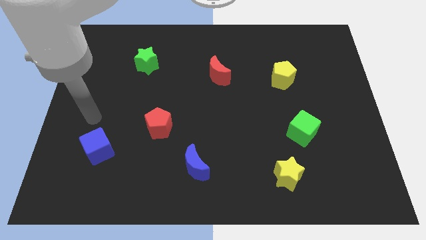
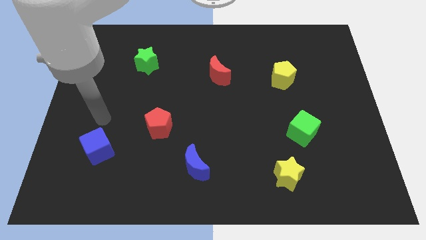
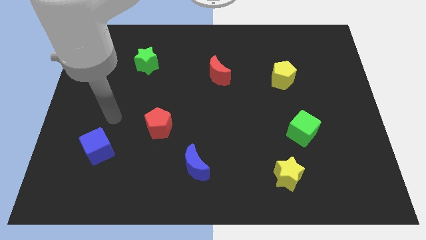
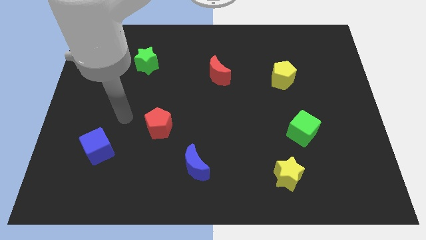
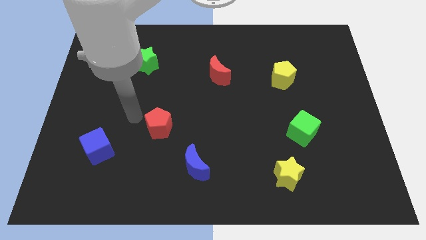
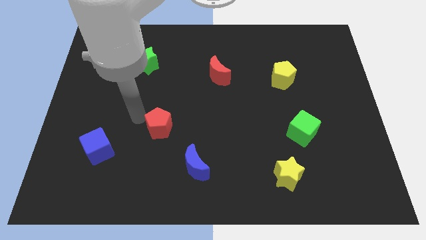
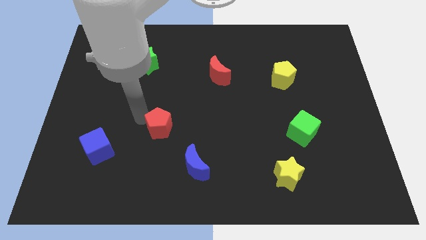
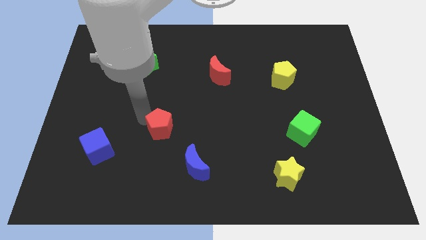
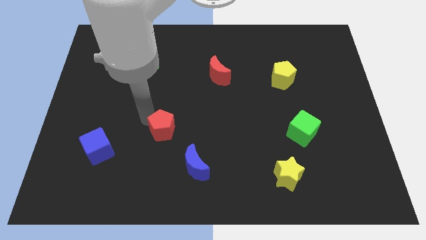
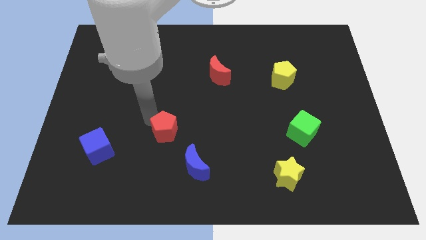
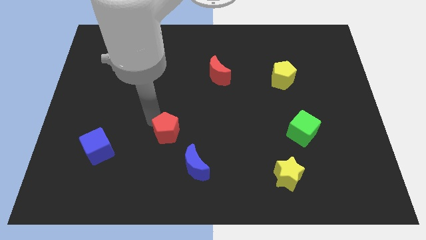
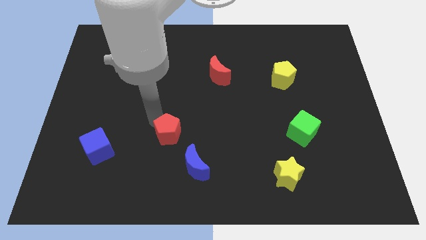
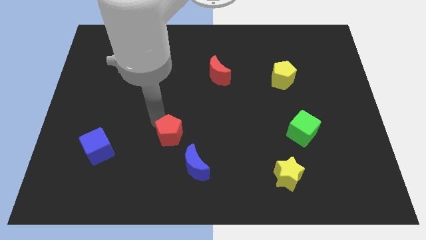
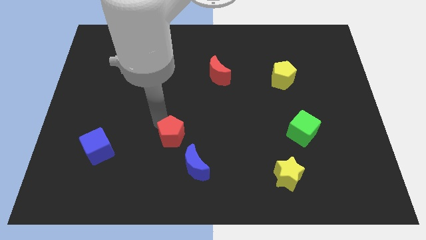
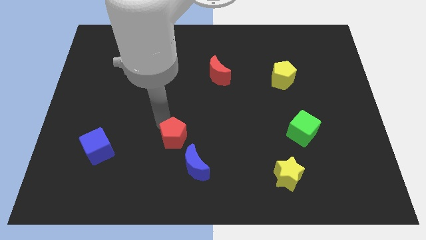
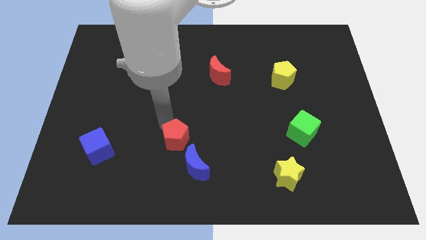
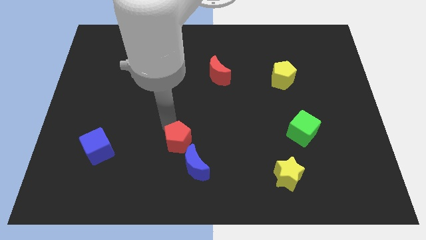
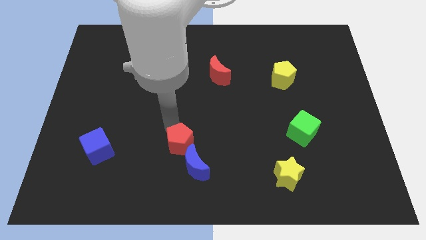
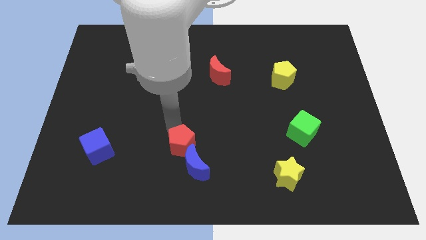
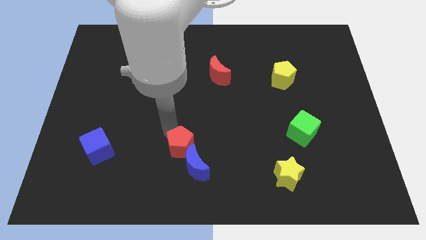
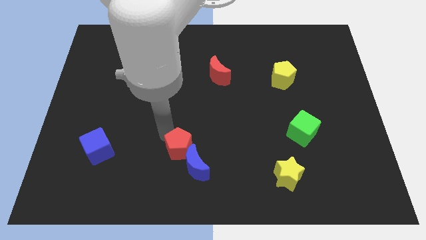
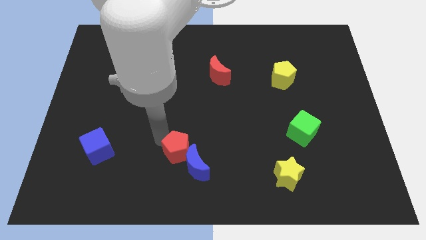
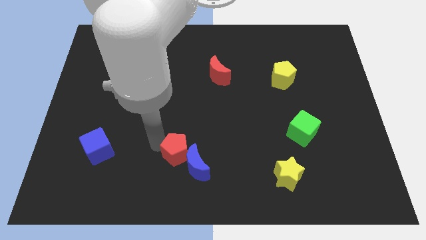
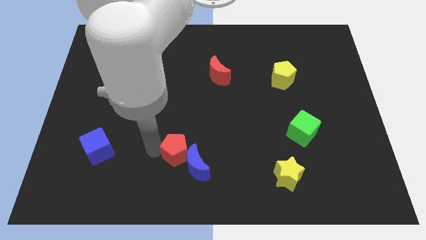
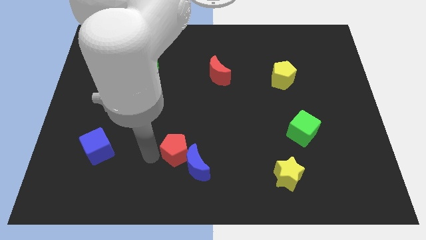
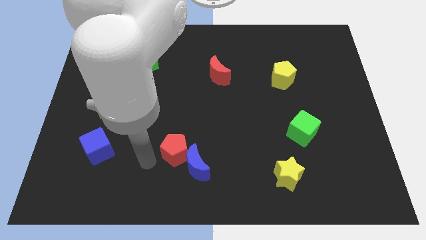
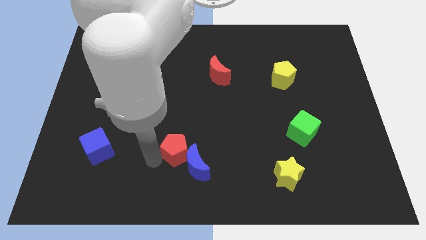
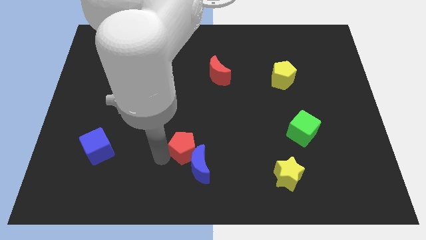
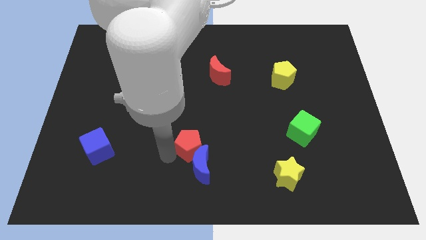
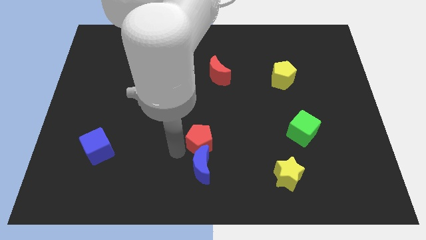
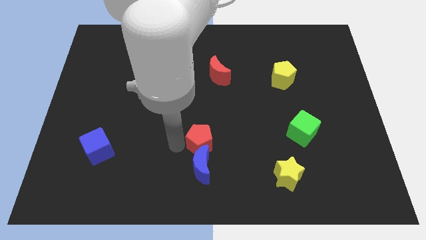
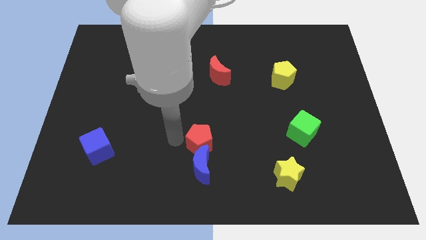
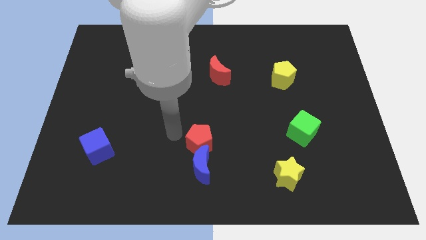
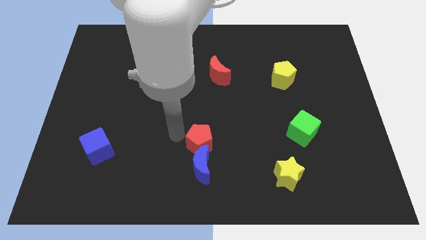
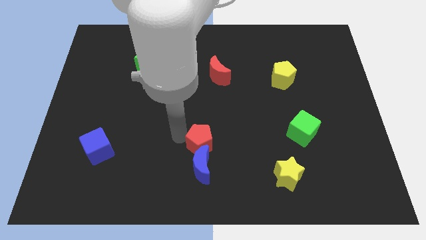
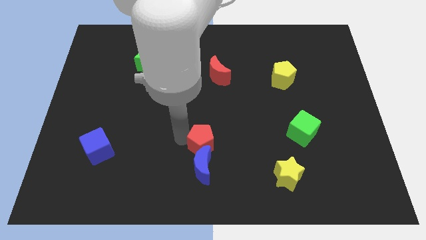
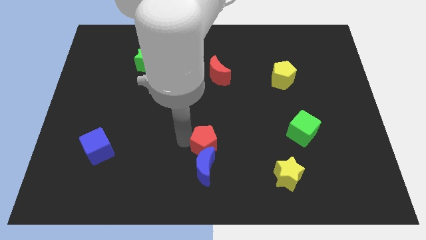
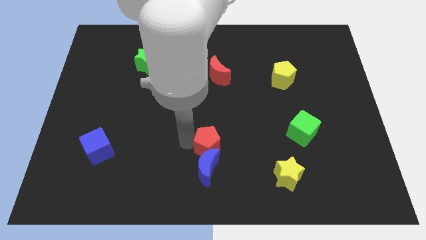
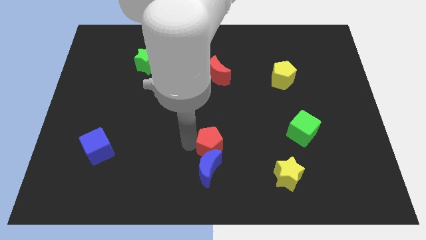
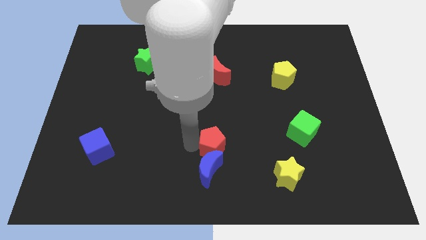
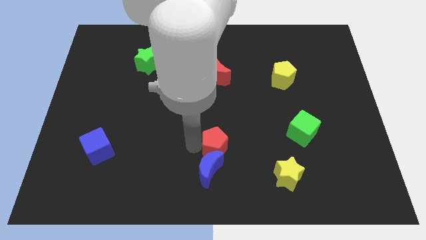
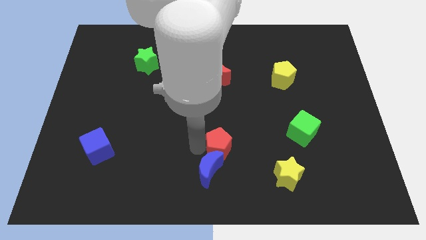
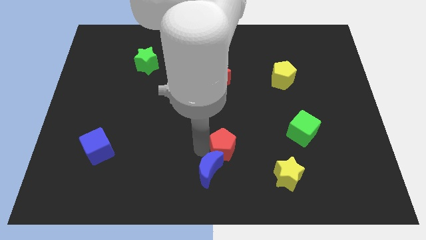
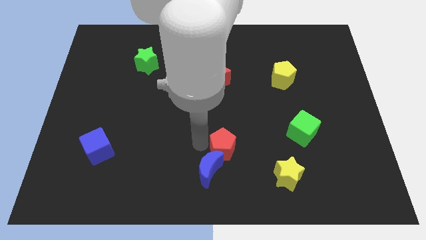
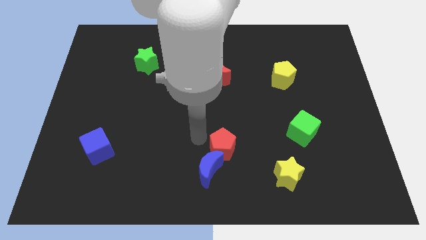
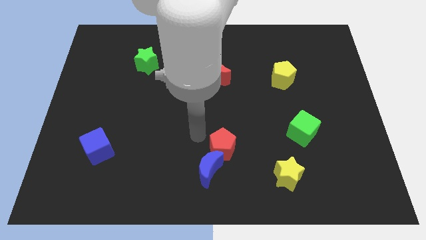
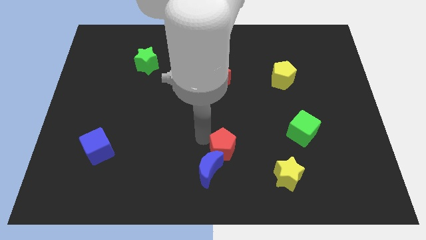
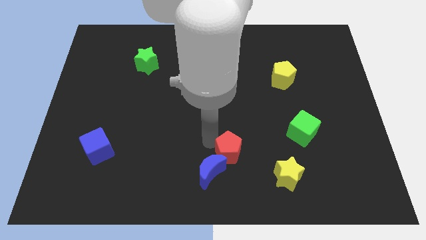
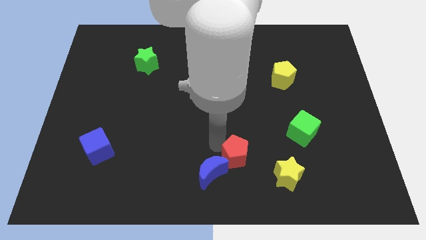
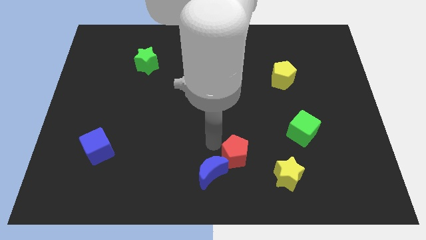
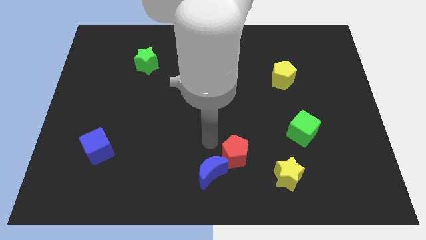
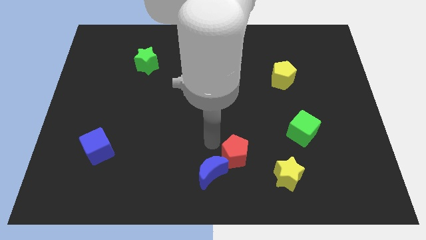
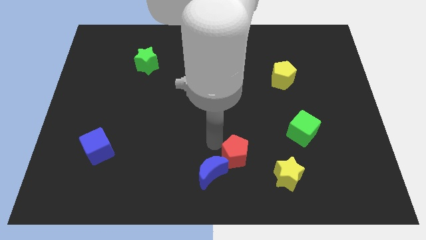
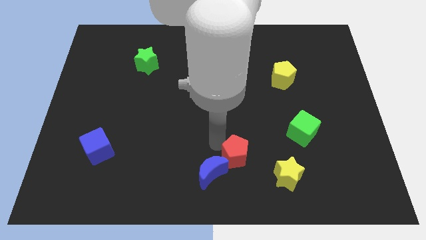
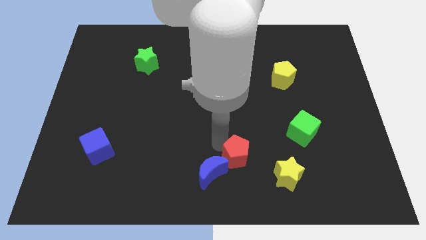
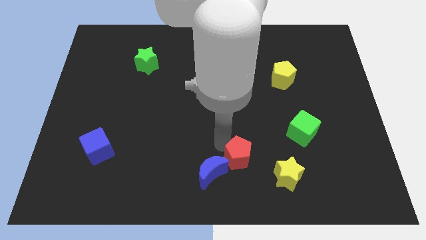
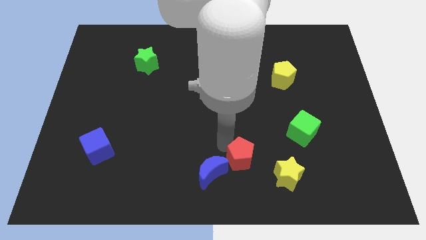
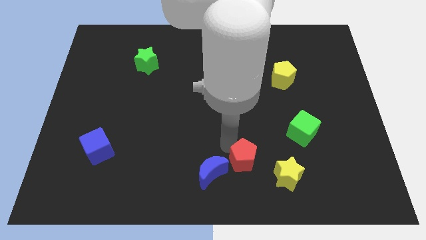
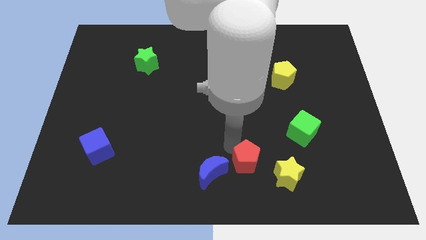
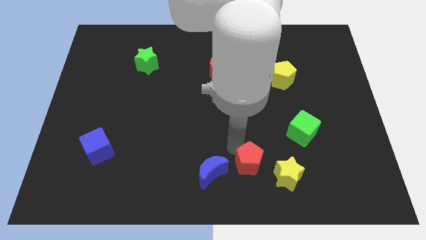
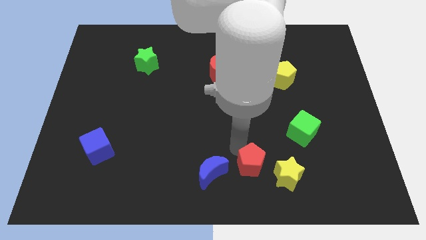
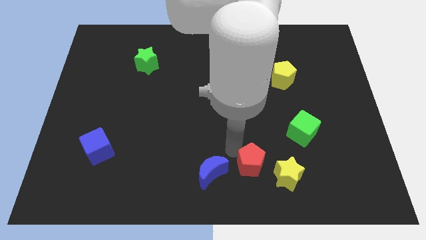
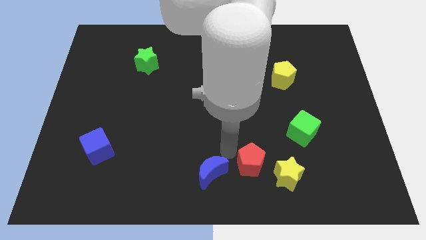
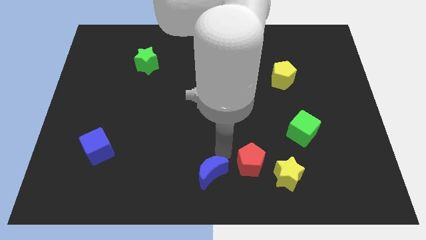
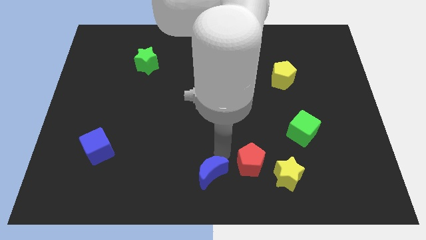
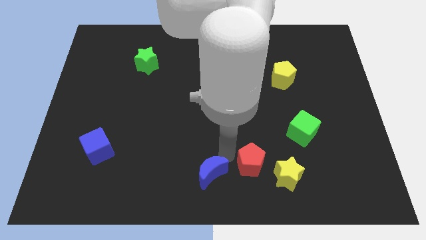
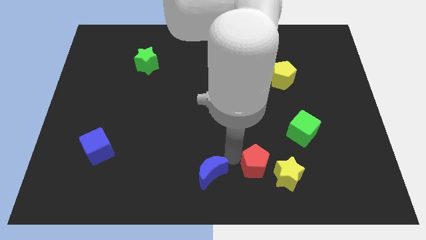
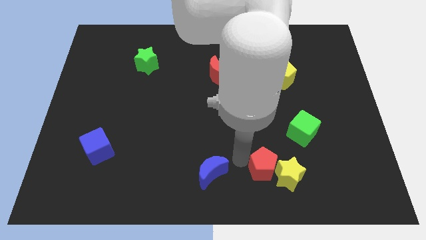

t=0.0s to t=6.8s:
slide the red pentagon to the yellow star
